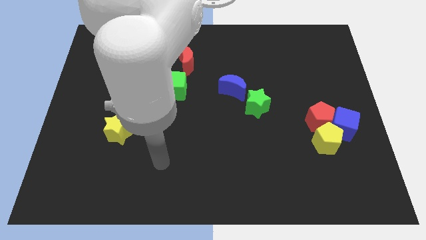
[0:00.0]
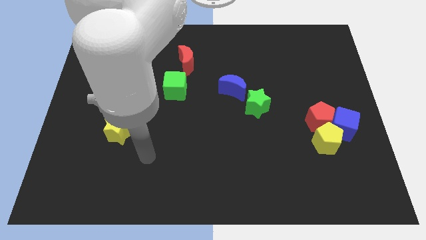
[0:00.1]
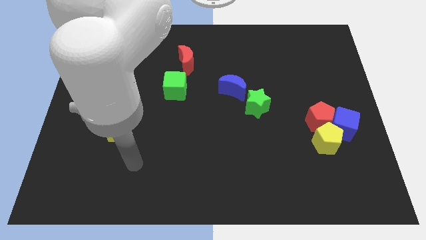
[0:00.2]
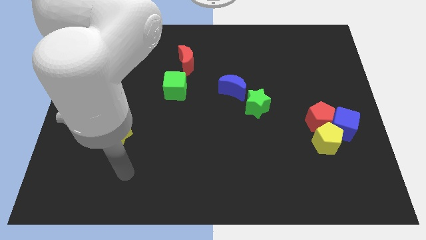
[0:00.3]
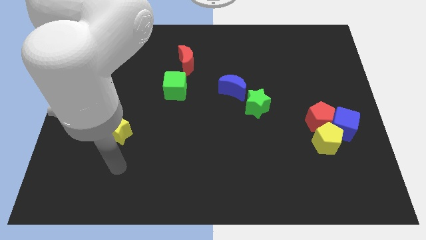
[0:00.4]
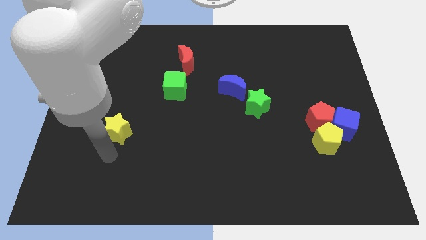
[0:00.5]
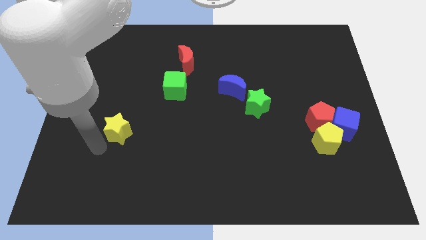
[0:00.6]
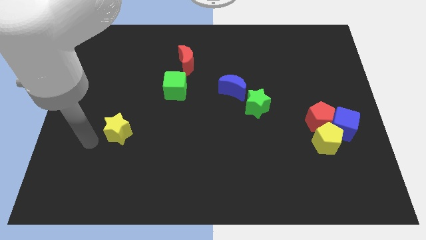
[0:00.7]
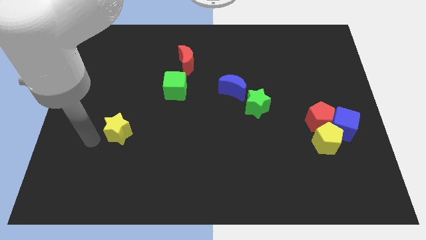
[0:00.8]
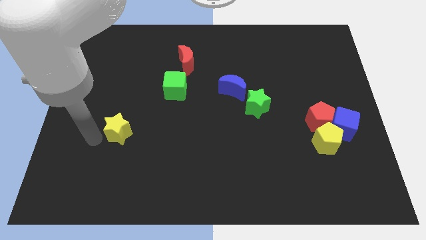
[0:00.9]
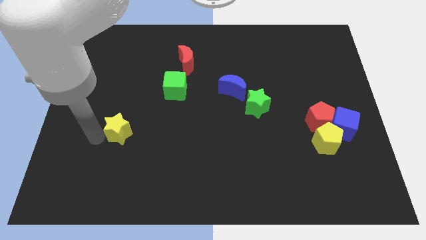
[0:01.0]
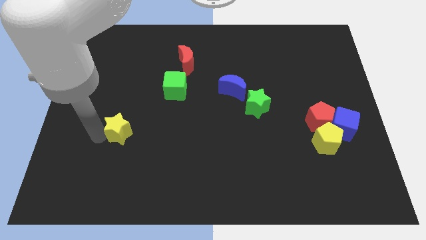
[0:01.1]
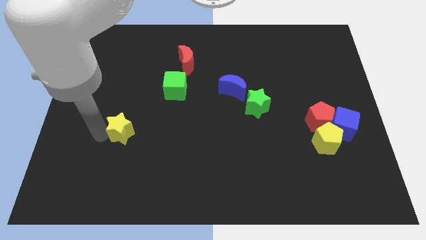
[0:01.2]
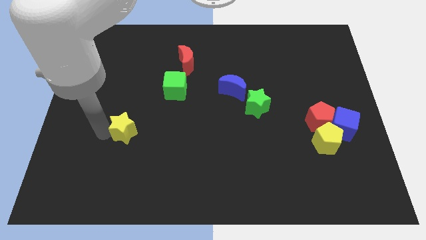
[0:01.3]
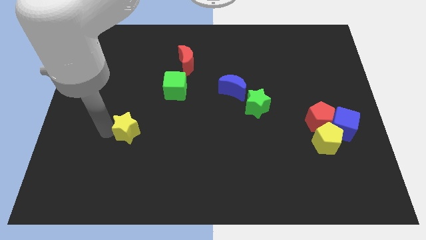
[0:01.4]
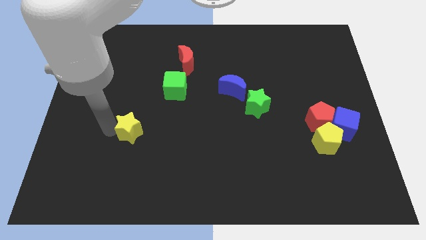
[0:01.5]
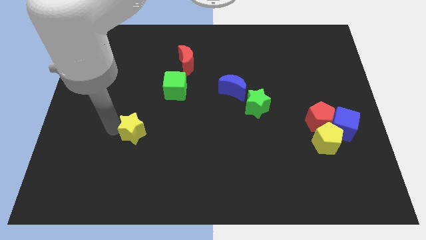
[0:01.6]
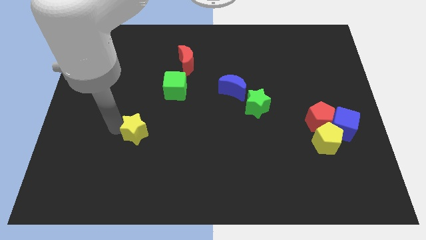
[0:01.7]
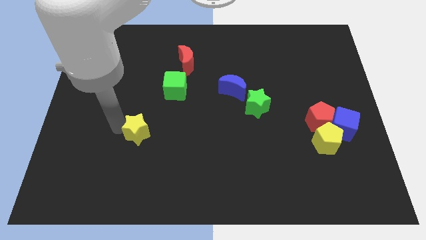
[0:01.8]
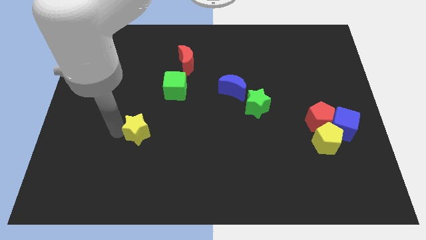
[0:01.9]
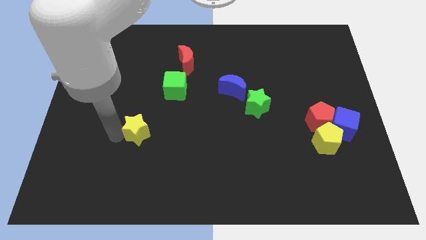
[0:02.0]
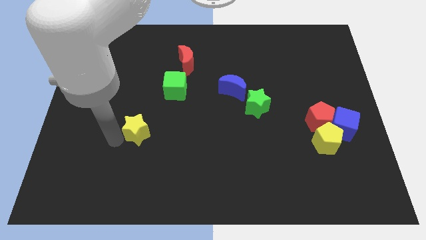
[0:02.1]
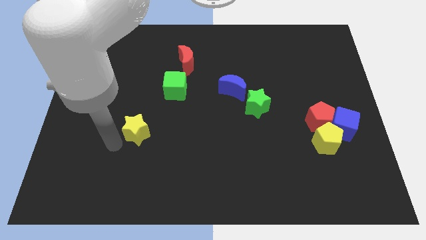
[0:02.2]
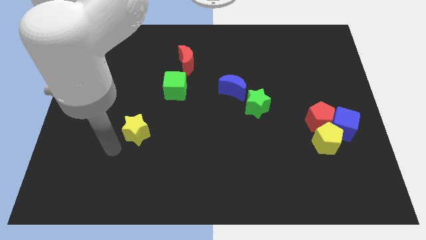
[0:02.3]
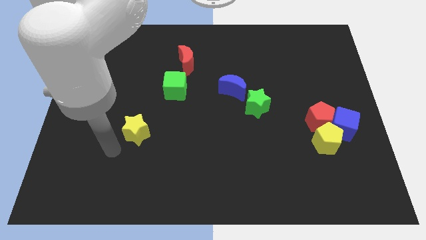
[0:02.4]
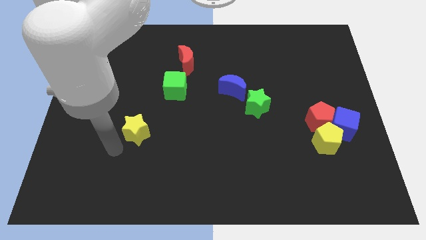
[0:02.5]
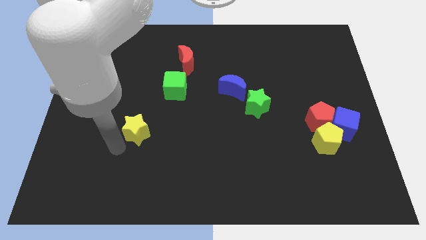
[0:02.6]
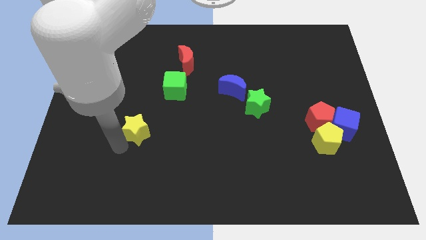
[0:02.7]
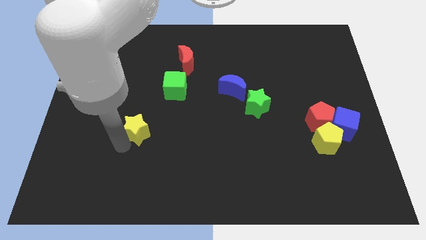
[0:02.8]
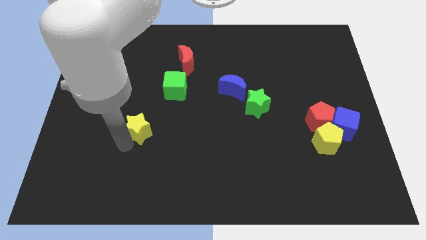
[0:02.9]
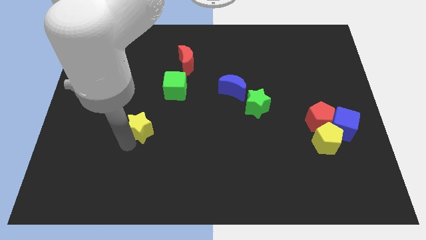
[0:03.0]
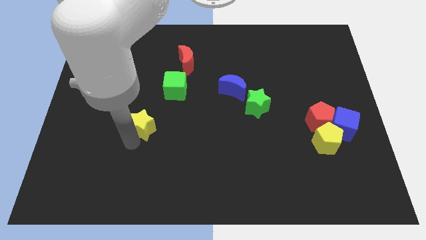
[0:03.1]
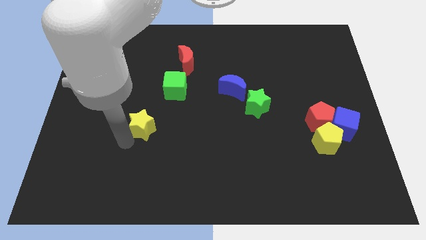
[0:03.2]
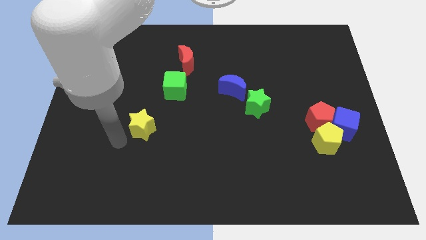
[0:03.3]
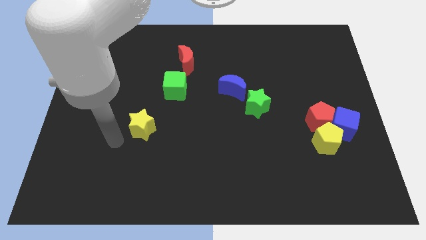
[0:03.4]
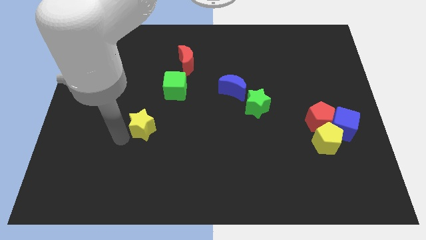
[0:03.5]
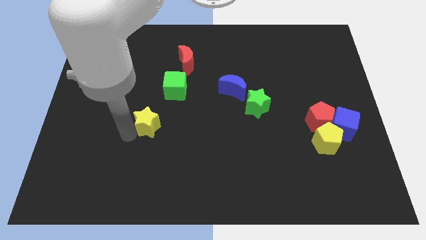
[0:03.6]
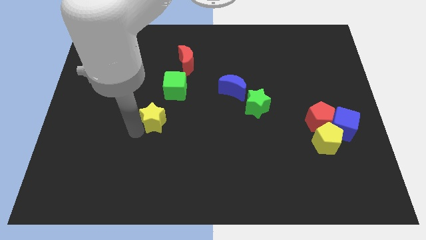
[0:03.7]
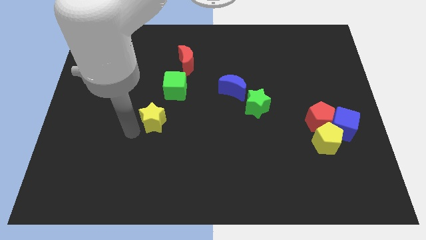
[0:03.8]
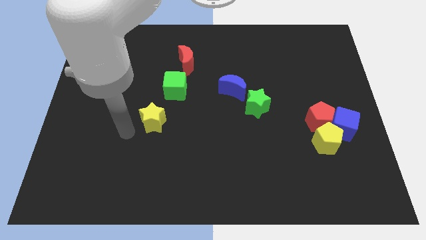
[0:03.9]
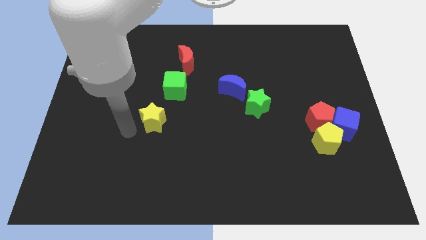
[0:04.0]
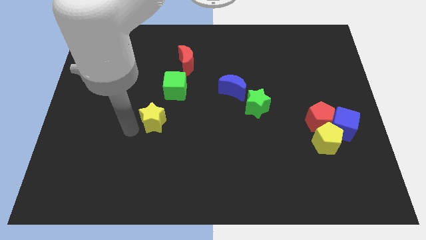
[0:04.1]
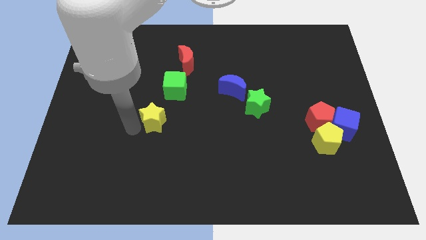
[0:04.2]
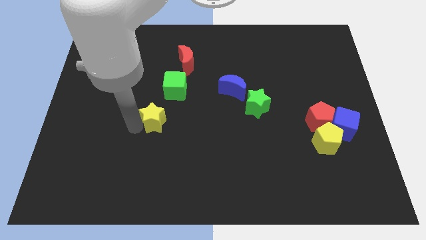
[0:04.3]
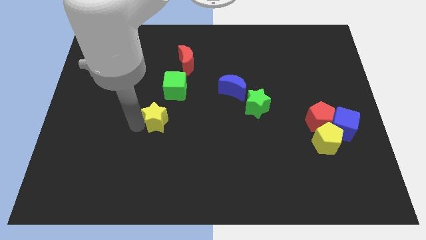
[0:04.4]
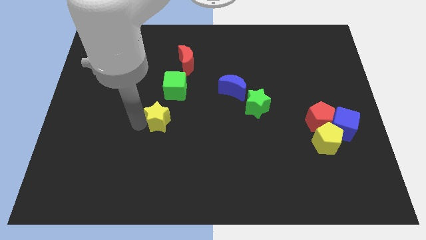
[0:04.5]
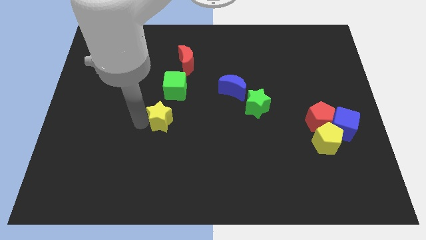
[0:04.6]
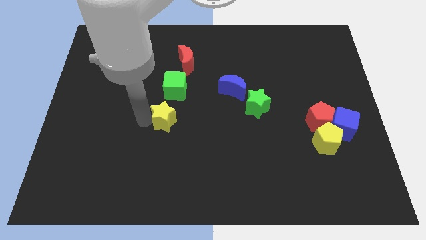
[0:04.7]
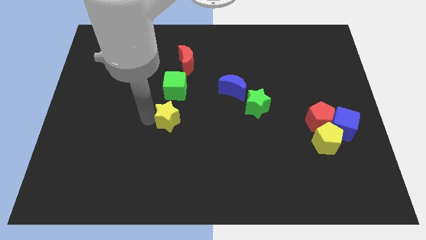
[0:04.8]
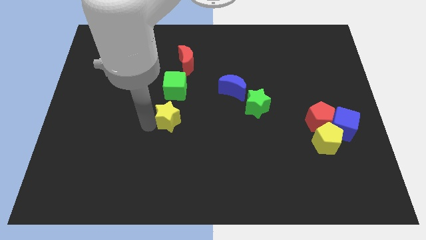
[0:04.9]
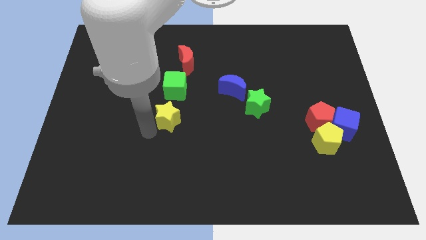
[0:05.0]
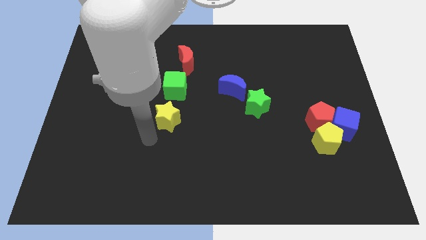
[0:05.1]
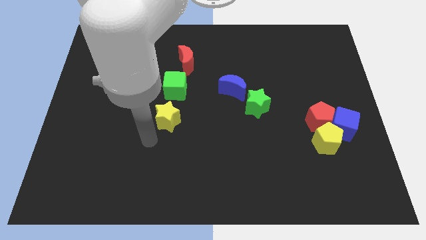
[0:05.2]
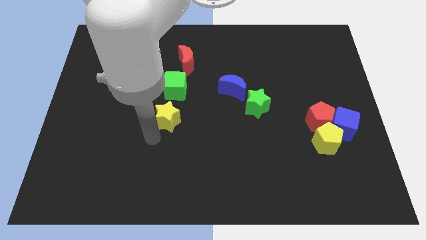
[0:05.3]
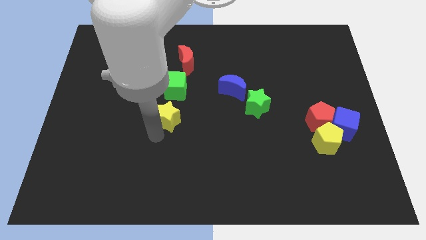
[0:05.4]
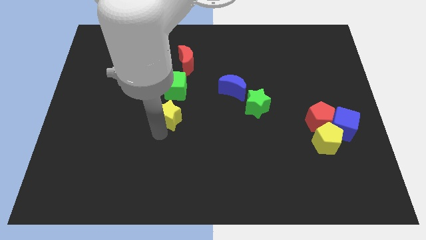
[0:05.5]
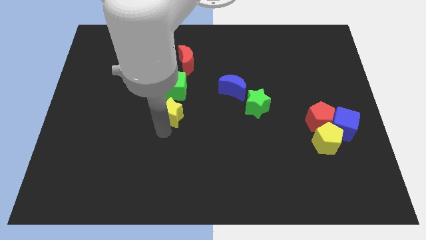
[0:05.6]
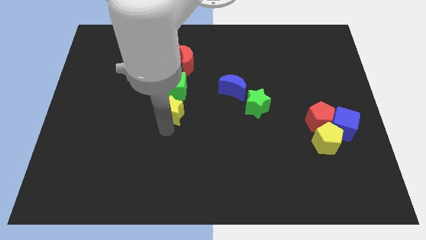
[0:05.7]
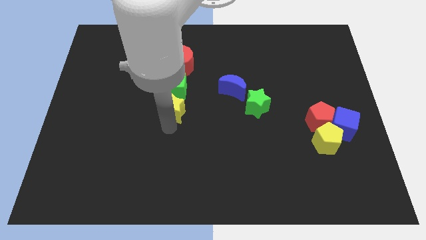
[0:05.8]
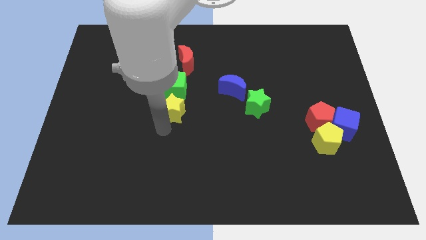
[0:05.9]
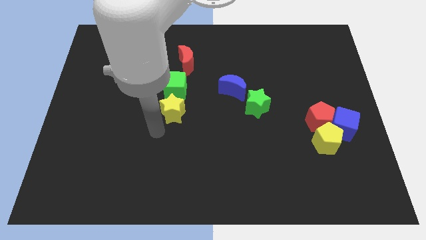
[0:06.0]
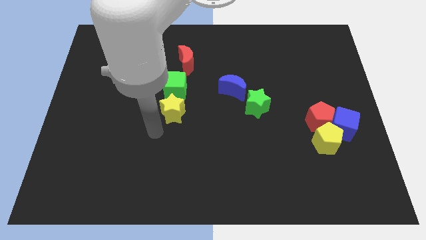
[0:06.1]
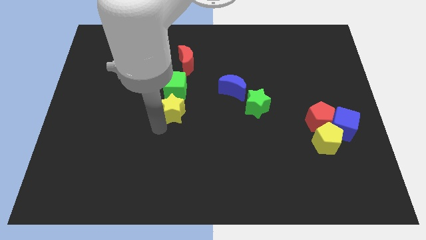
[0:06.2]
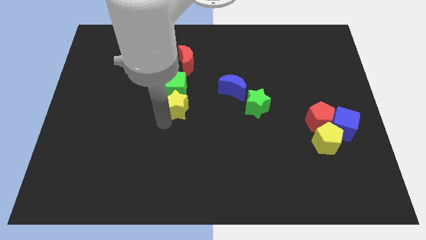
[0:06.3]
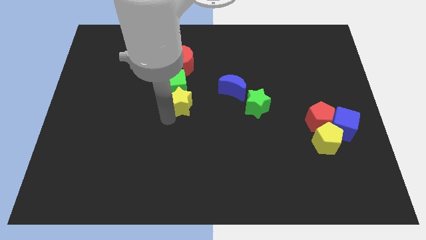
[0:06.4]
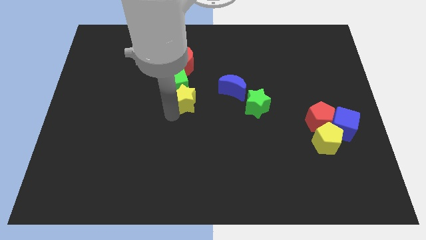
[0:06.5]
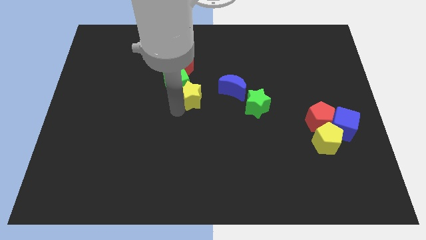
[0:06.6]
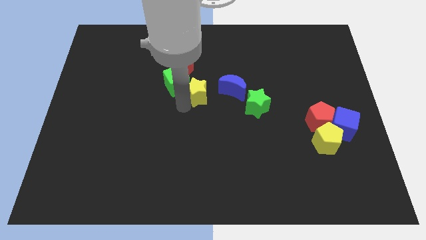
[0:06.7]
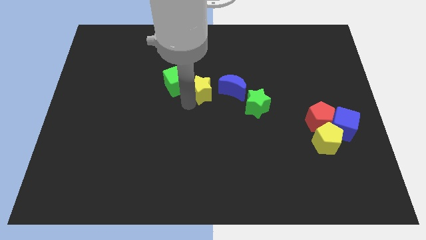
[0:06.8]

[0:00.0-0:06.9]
slide the yellow star upwards and right diagonally

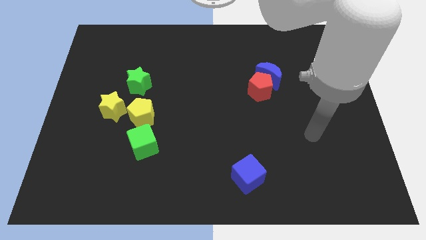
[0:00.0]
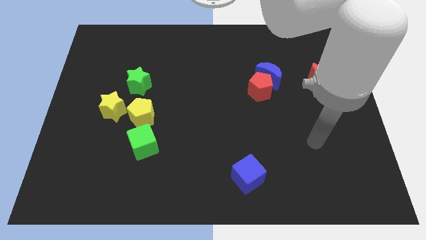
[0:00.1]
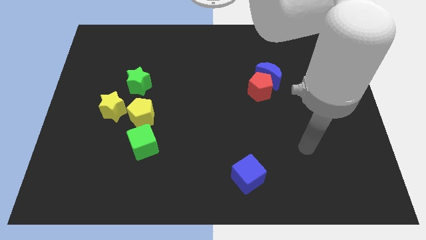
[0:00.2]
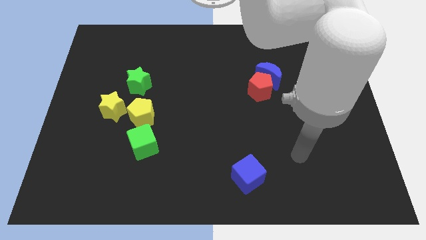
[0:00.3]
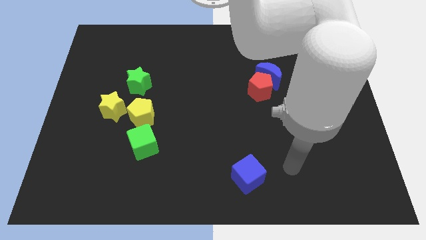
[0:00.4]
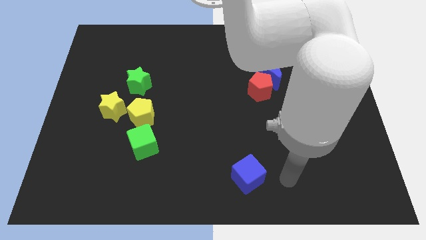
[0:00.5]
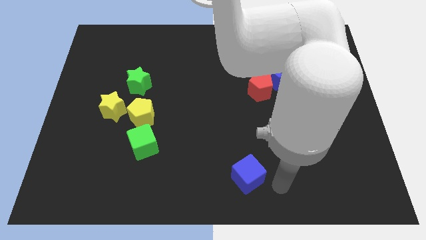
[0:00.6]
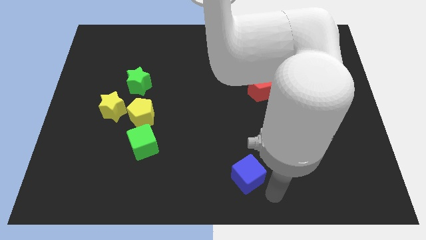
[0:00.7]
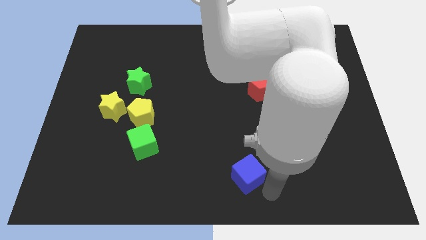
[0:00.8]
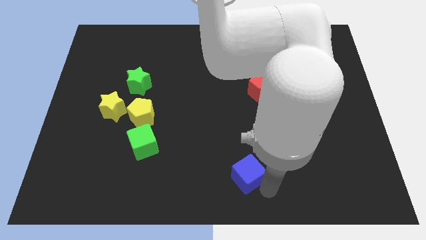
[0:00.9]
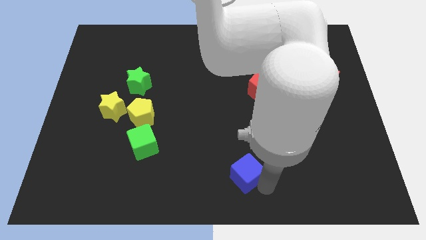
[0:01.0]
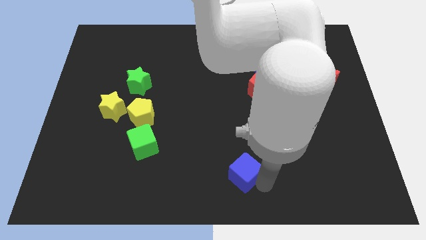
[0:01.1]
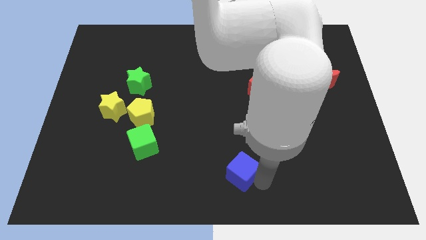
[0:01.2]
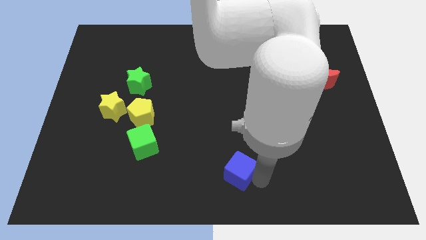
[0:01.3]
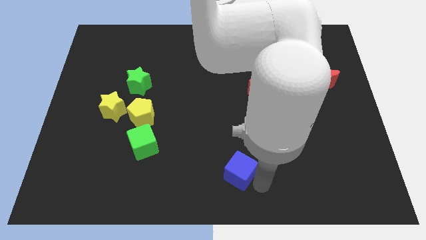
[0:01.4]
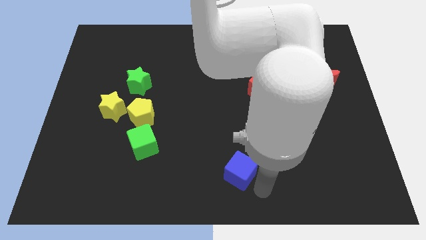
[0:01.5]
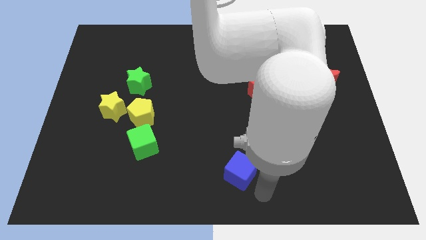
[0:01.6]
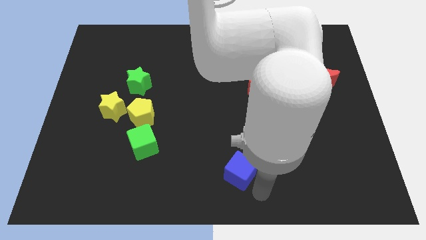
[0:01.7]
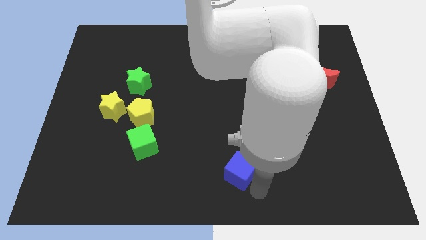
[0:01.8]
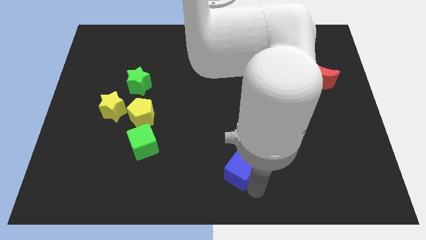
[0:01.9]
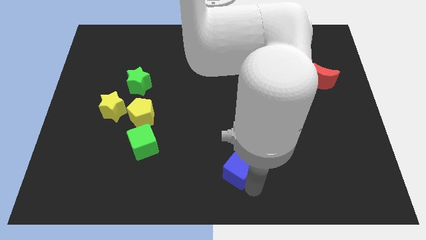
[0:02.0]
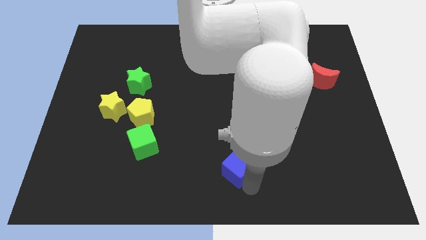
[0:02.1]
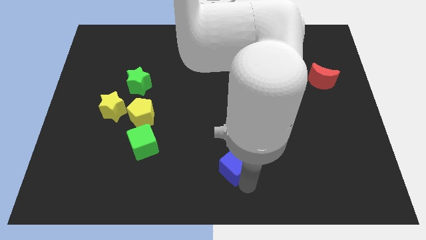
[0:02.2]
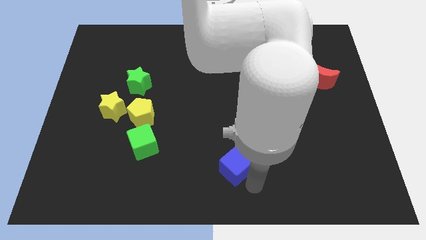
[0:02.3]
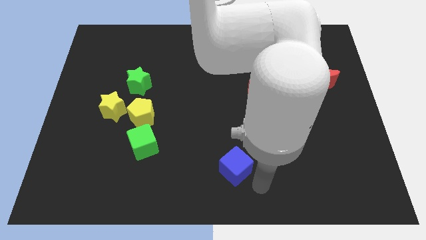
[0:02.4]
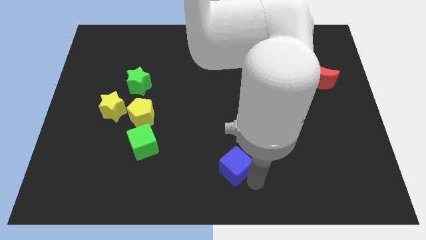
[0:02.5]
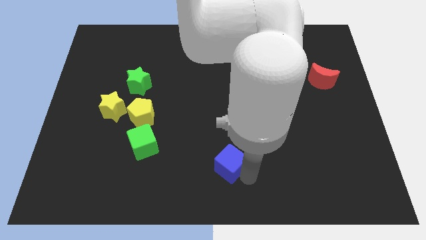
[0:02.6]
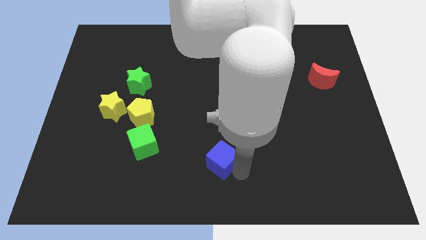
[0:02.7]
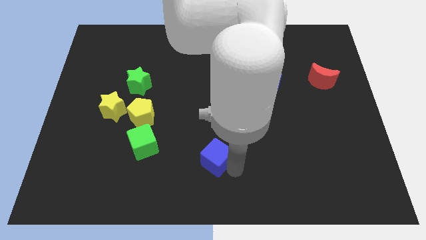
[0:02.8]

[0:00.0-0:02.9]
slide the blue cube up and to the left diagonally slightly
